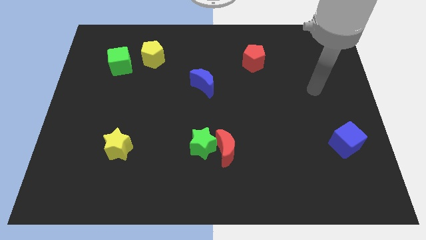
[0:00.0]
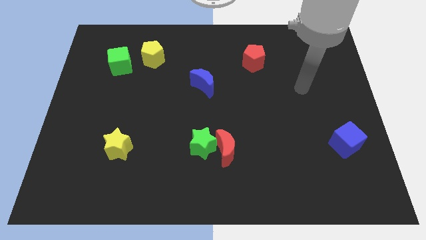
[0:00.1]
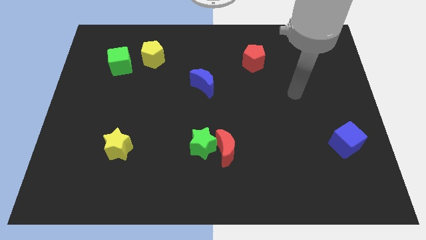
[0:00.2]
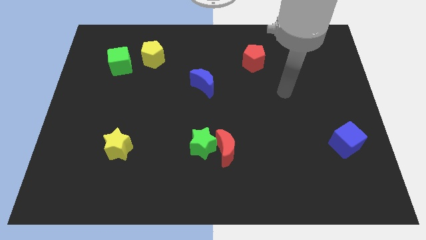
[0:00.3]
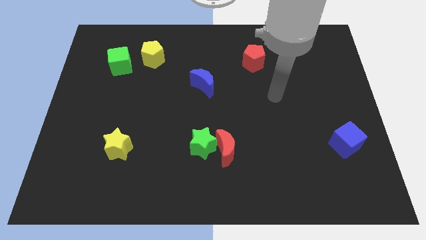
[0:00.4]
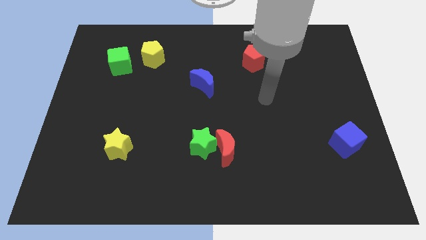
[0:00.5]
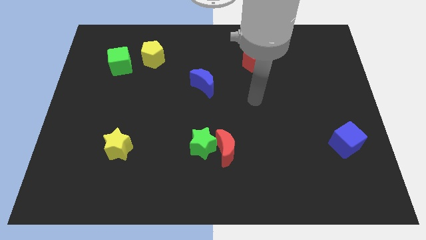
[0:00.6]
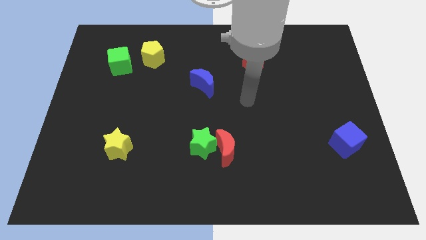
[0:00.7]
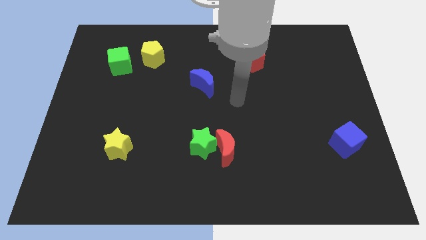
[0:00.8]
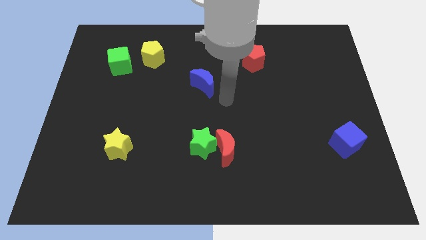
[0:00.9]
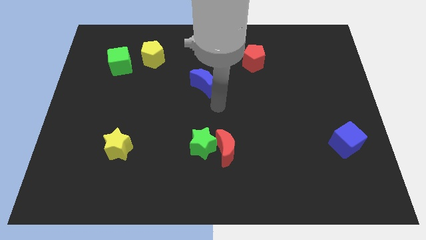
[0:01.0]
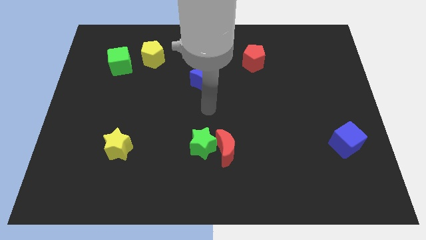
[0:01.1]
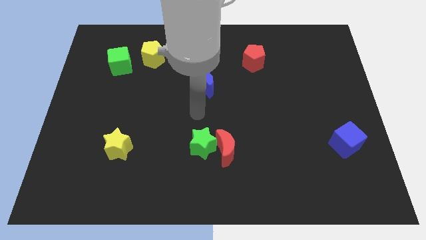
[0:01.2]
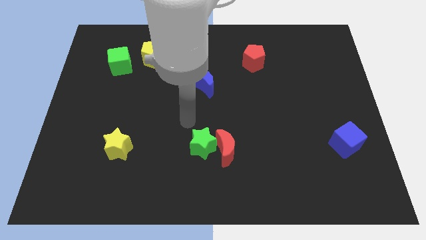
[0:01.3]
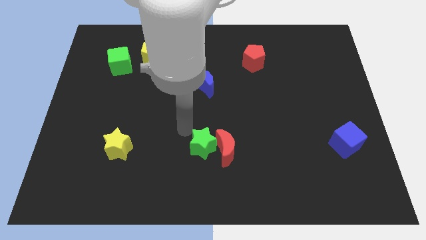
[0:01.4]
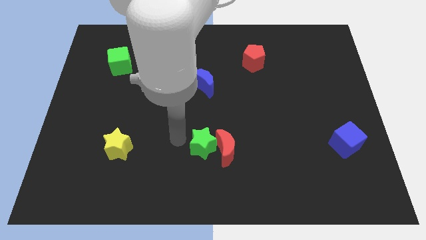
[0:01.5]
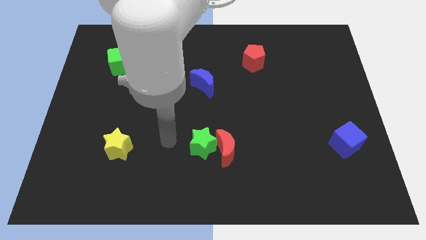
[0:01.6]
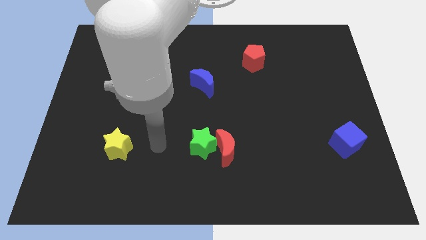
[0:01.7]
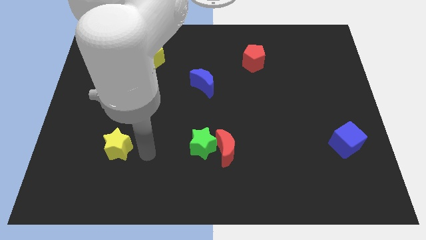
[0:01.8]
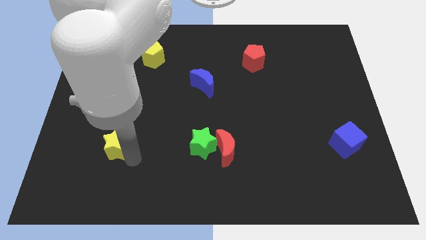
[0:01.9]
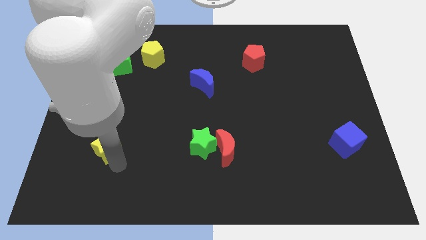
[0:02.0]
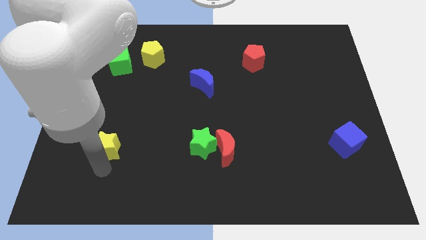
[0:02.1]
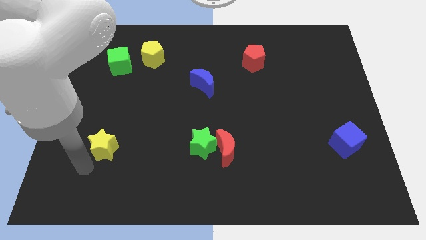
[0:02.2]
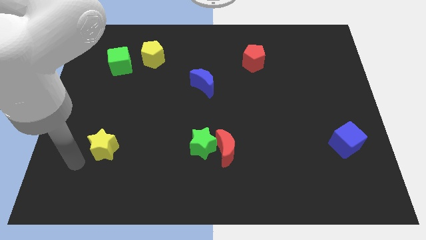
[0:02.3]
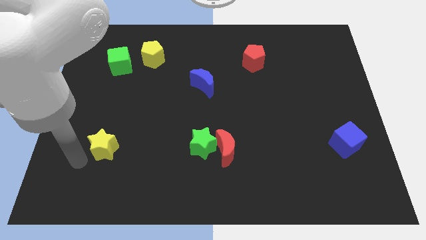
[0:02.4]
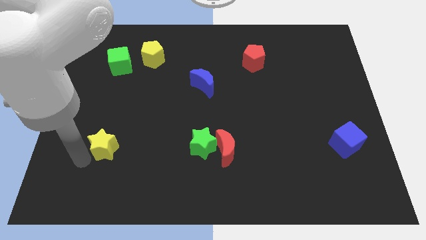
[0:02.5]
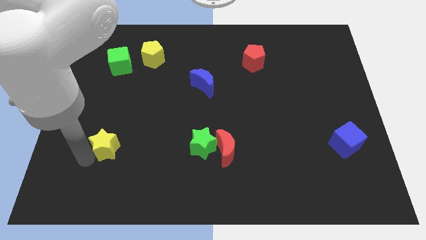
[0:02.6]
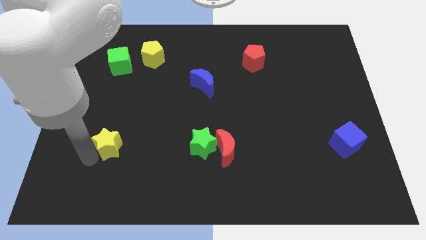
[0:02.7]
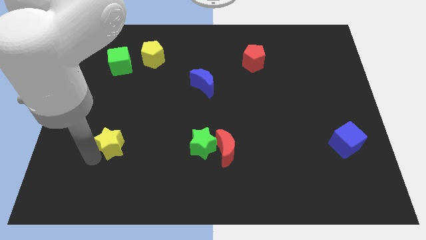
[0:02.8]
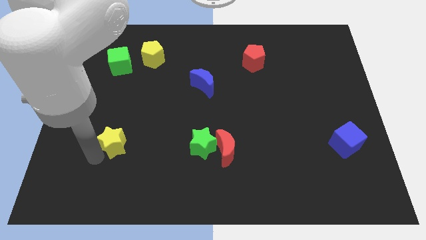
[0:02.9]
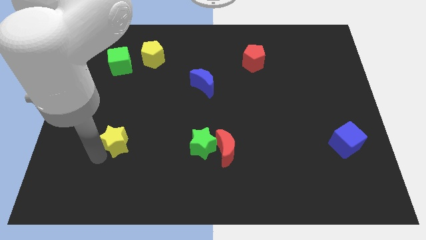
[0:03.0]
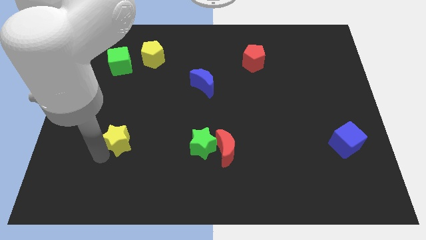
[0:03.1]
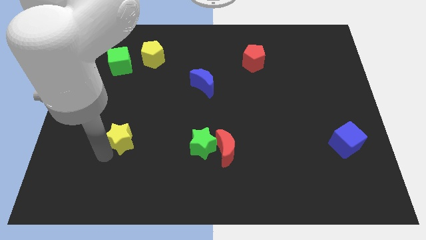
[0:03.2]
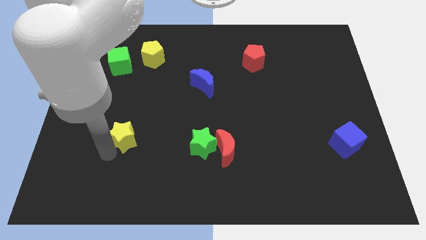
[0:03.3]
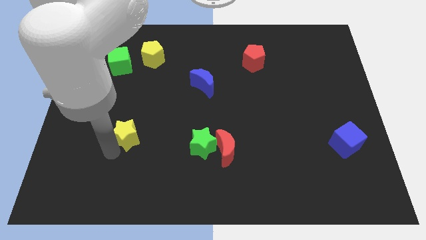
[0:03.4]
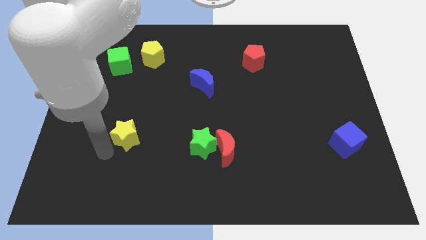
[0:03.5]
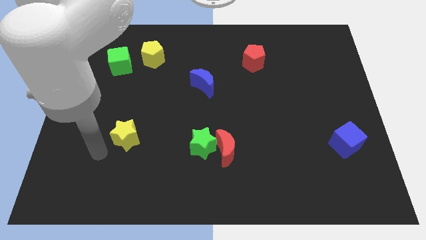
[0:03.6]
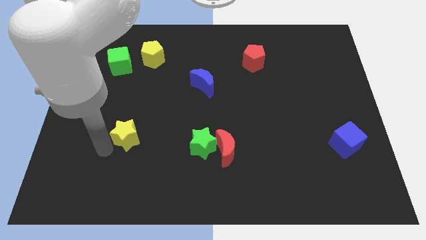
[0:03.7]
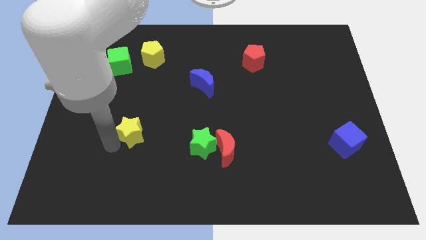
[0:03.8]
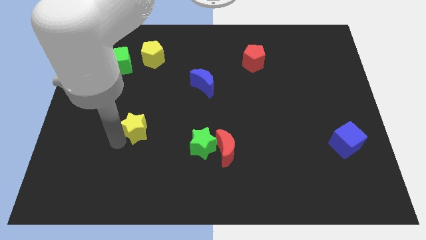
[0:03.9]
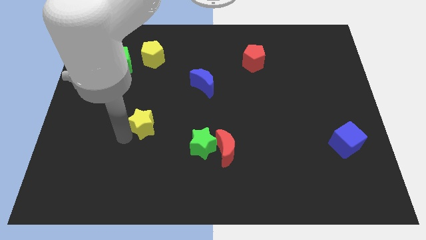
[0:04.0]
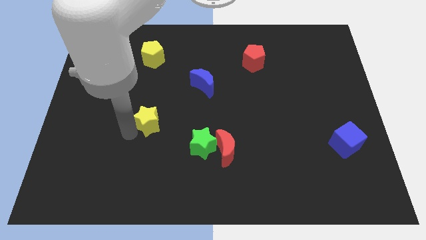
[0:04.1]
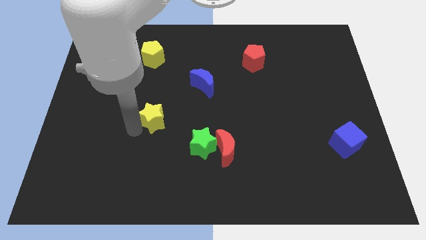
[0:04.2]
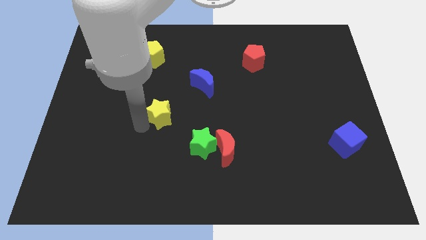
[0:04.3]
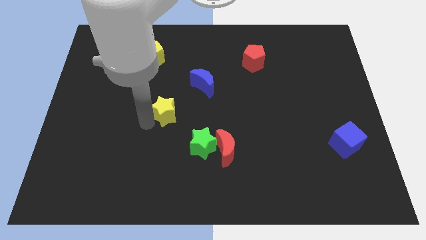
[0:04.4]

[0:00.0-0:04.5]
push the yellow star to the center of the board

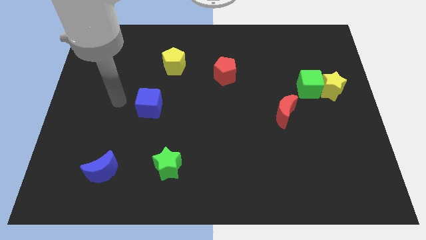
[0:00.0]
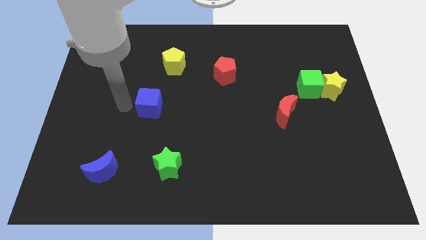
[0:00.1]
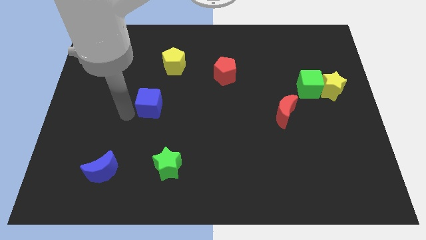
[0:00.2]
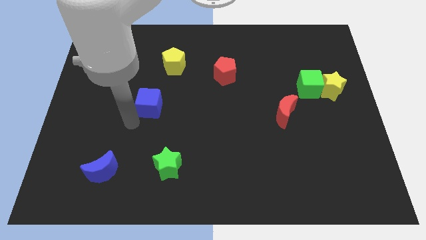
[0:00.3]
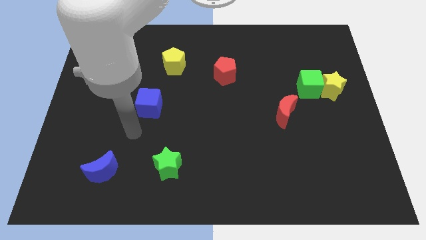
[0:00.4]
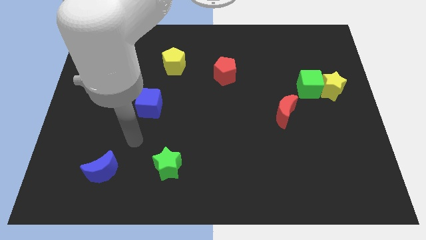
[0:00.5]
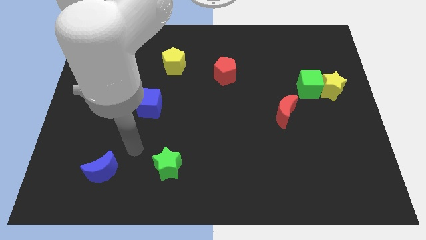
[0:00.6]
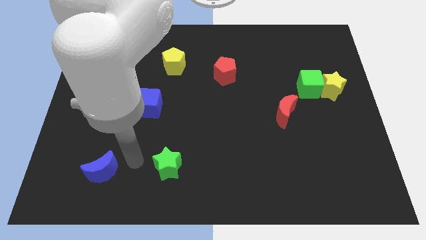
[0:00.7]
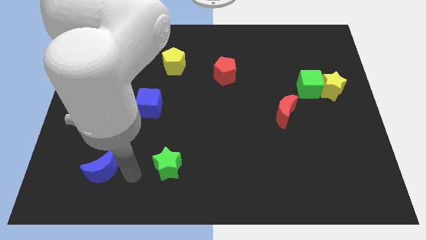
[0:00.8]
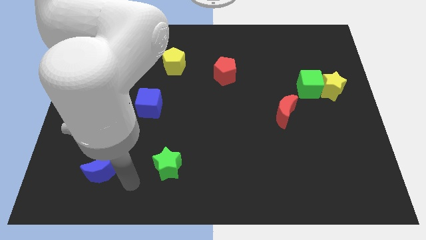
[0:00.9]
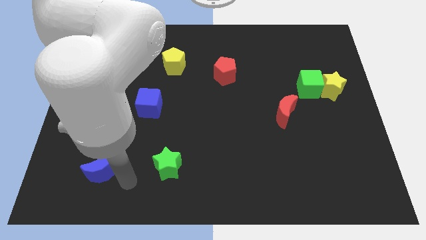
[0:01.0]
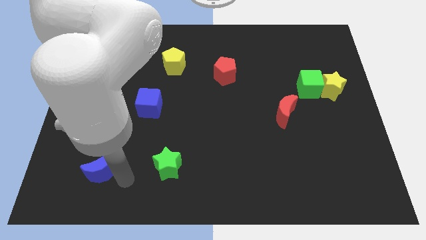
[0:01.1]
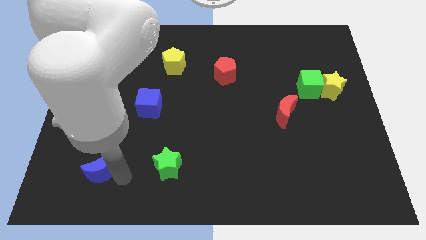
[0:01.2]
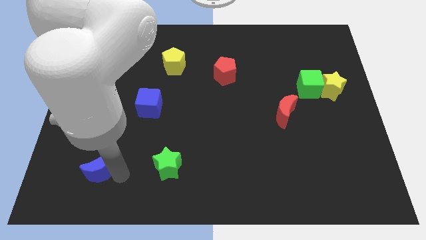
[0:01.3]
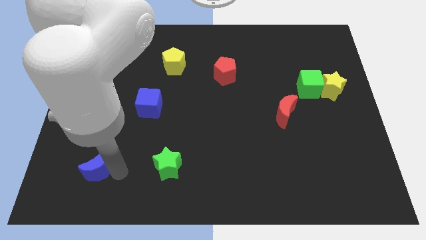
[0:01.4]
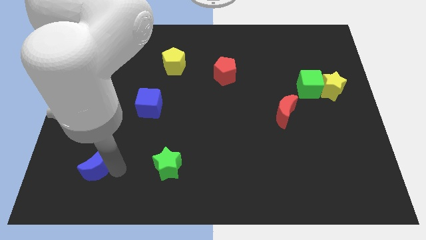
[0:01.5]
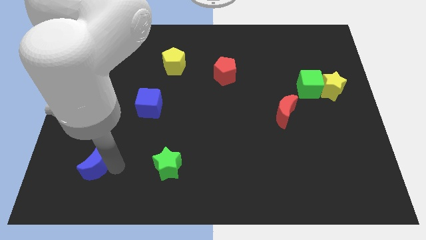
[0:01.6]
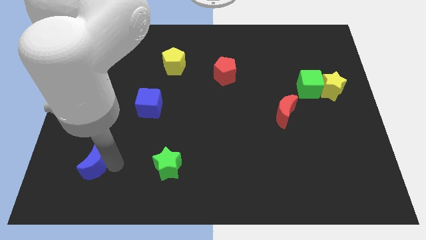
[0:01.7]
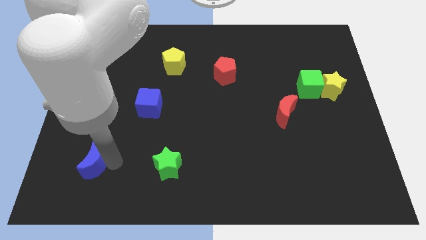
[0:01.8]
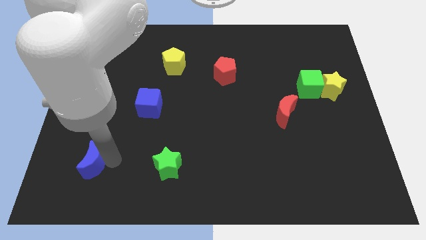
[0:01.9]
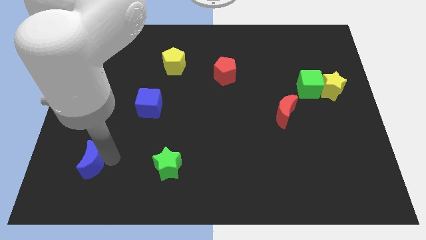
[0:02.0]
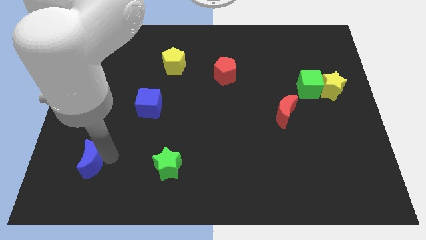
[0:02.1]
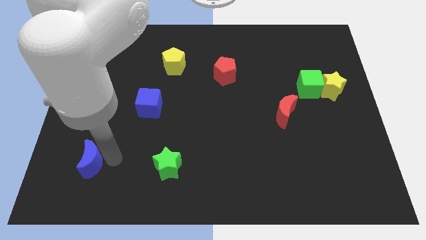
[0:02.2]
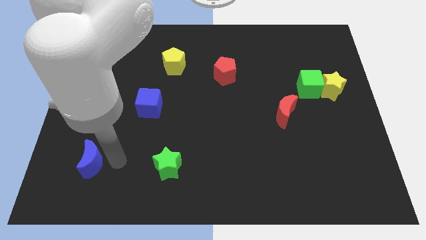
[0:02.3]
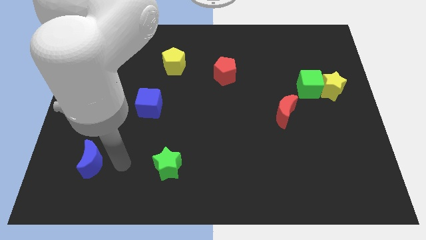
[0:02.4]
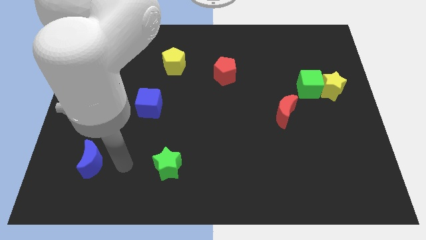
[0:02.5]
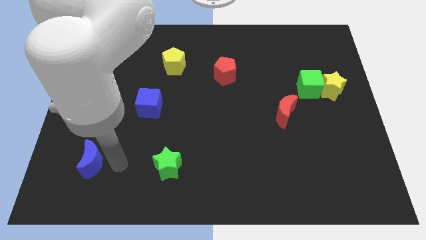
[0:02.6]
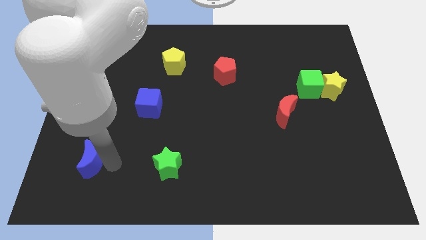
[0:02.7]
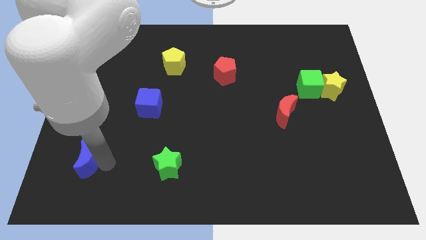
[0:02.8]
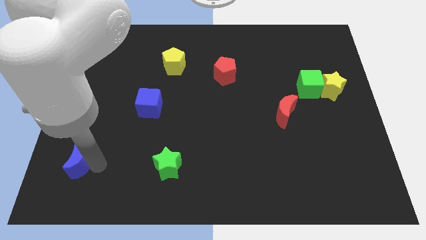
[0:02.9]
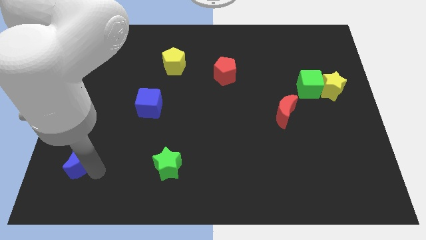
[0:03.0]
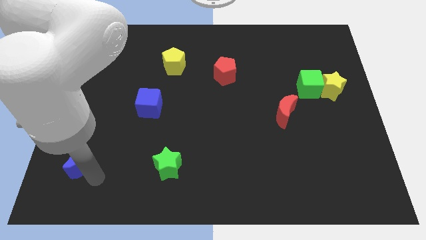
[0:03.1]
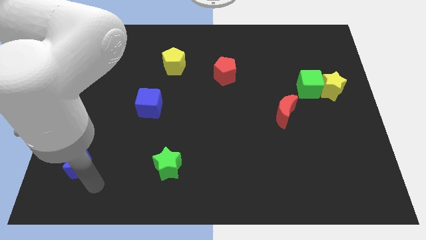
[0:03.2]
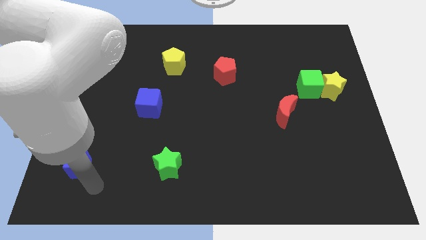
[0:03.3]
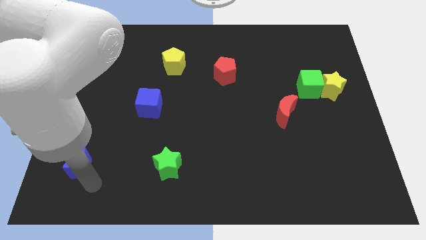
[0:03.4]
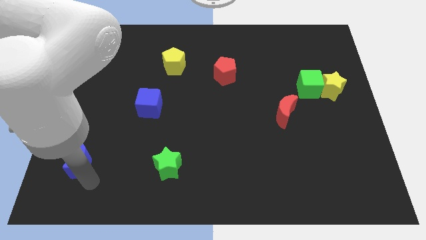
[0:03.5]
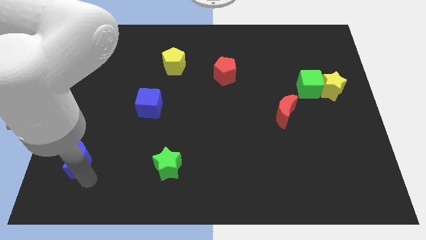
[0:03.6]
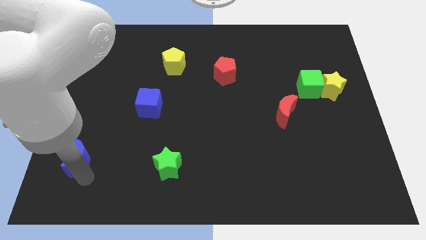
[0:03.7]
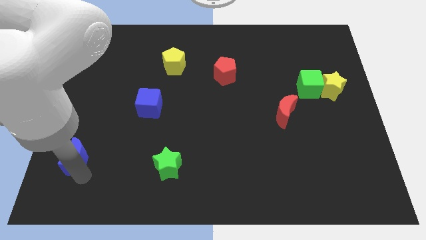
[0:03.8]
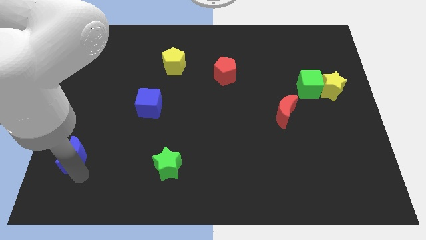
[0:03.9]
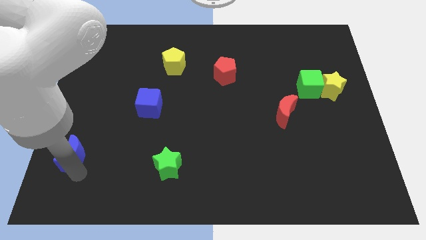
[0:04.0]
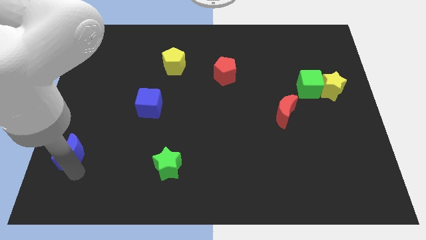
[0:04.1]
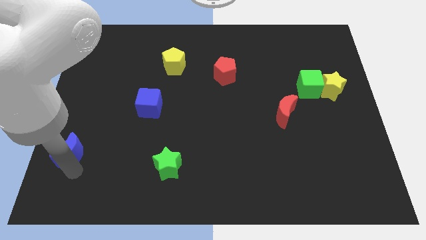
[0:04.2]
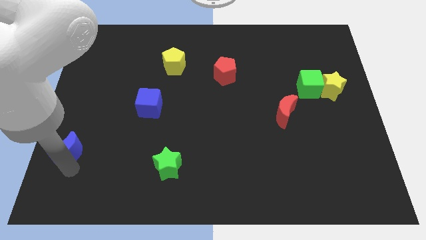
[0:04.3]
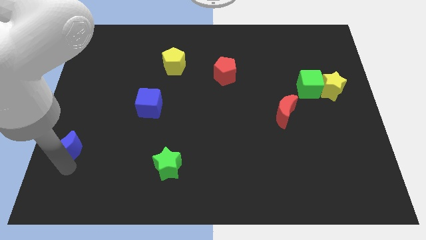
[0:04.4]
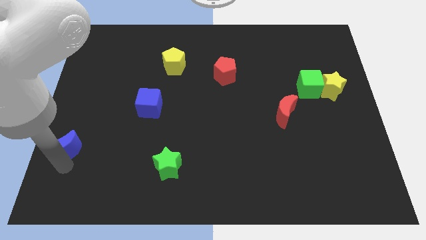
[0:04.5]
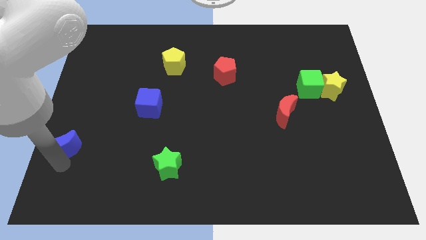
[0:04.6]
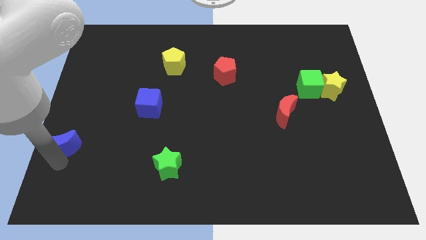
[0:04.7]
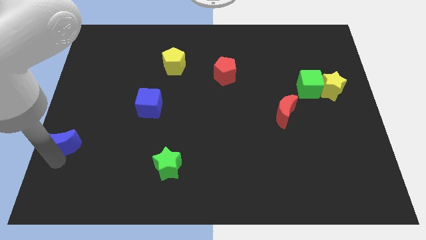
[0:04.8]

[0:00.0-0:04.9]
slide the blue moon to the left side of the board
